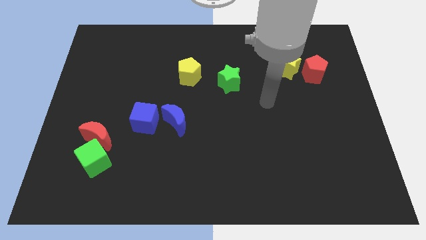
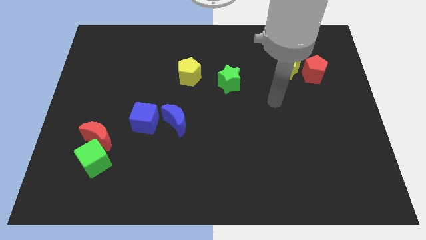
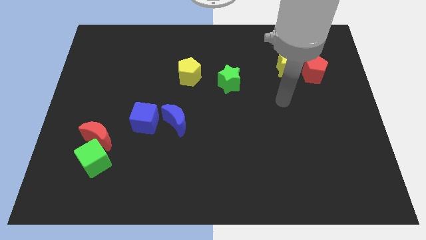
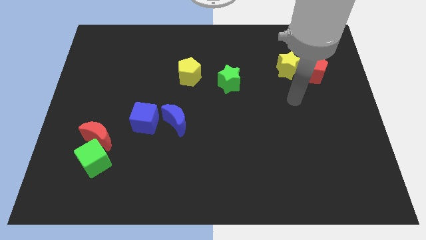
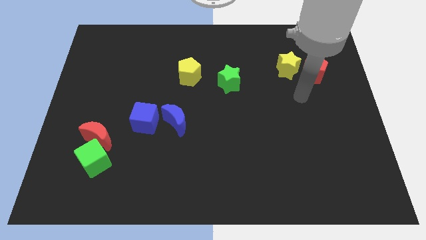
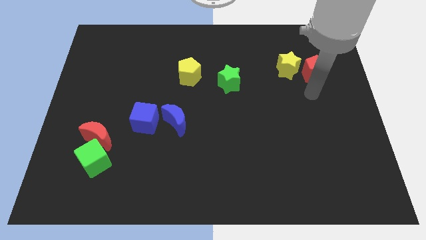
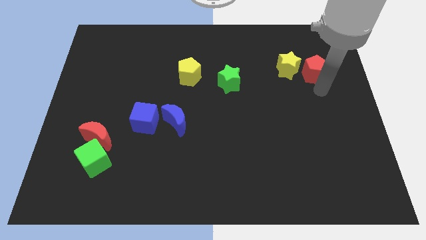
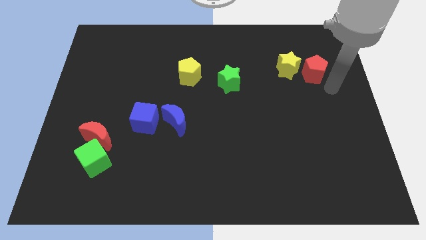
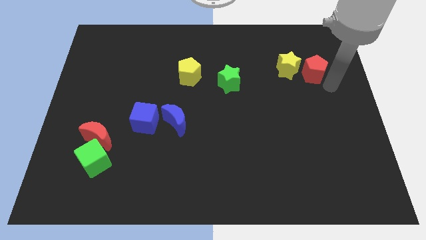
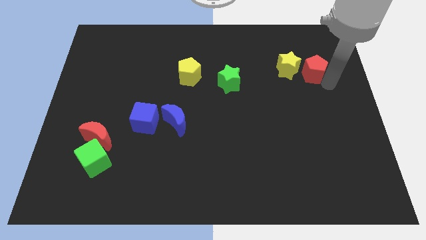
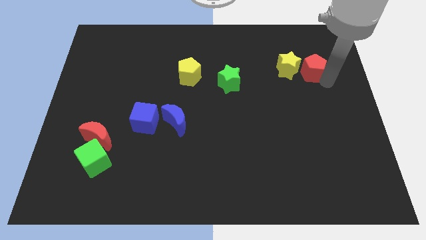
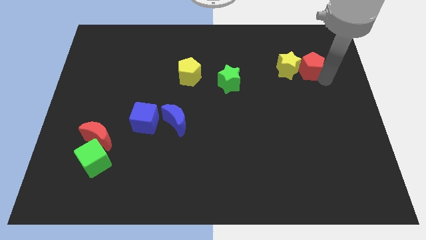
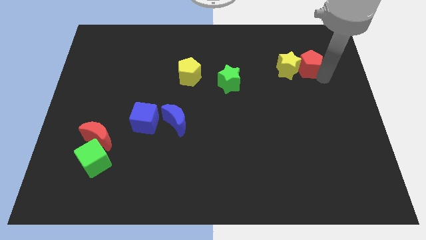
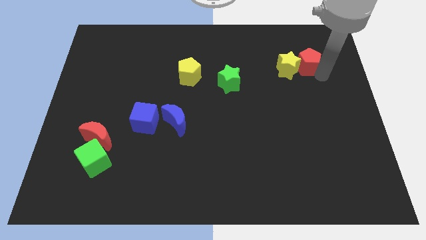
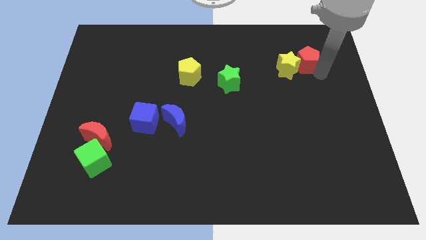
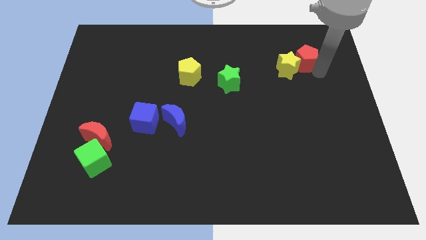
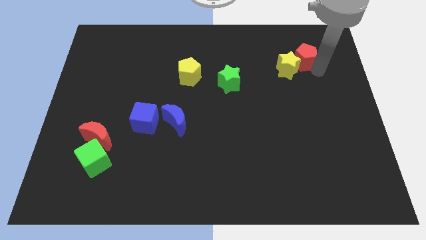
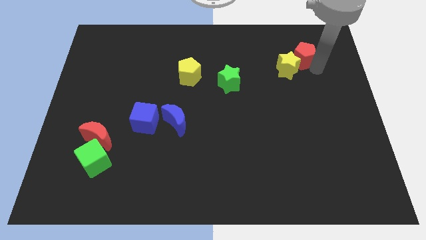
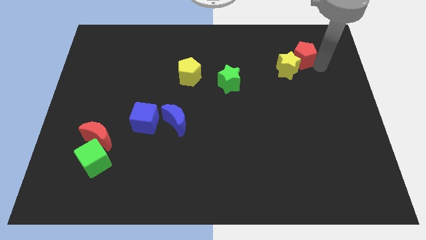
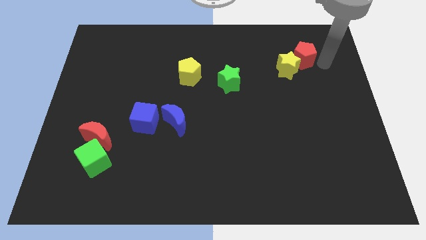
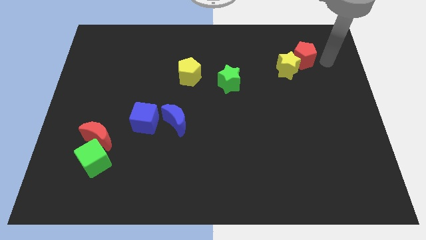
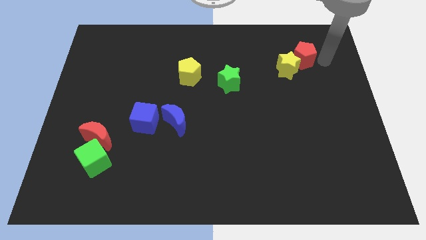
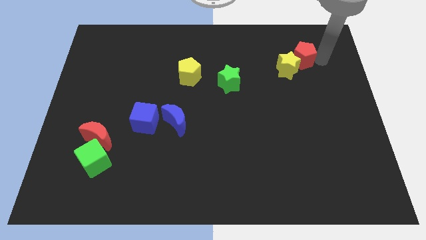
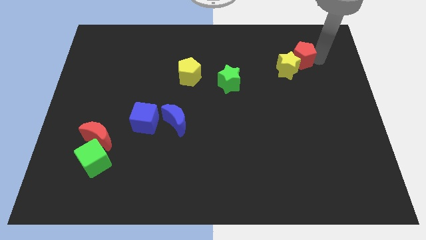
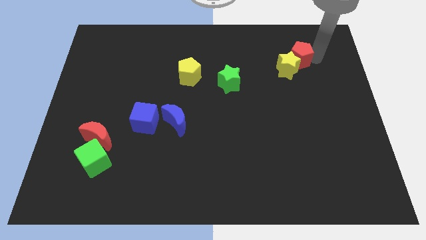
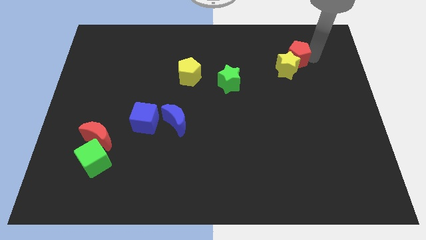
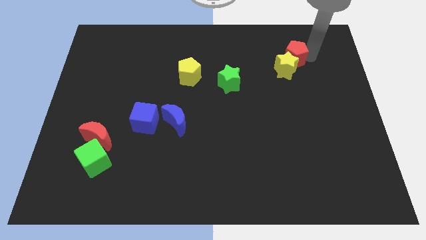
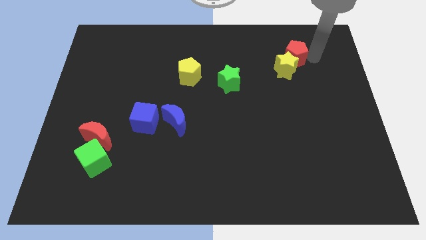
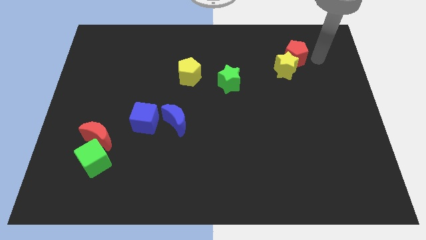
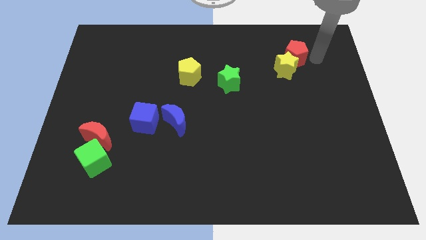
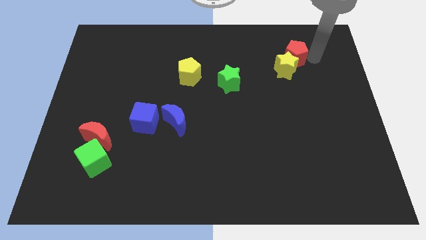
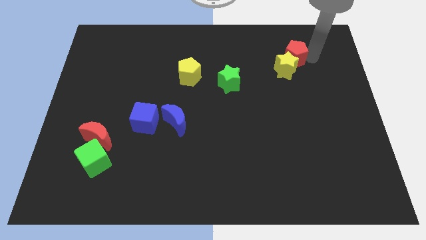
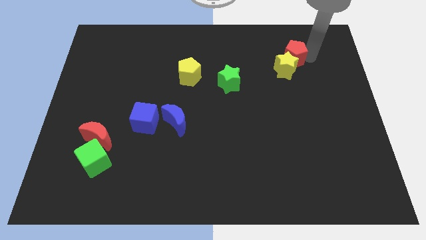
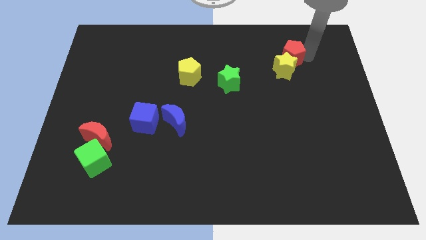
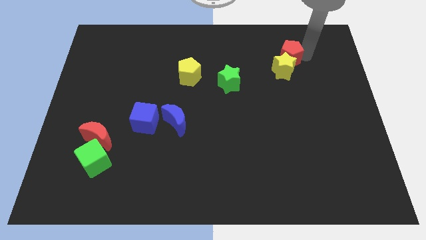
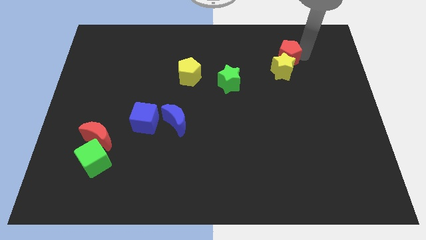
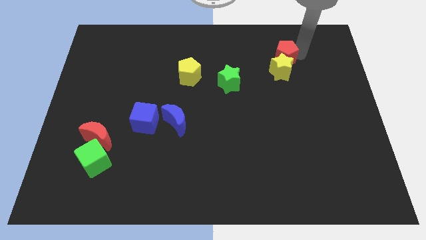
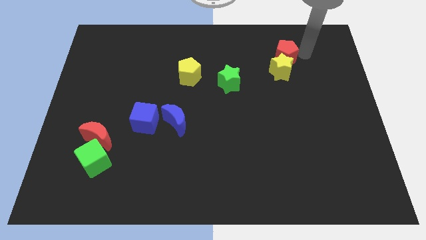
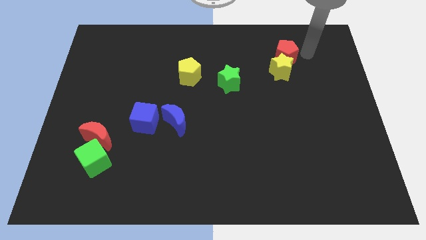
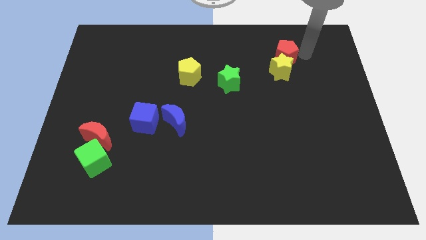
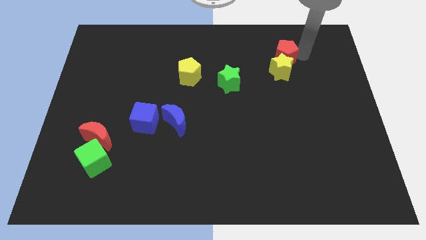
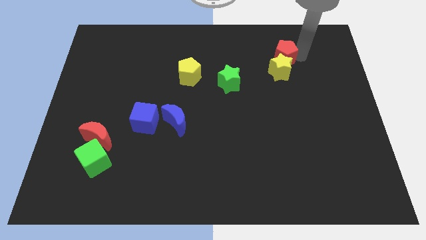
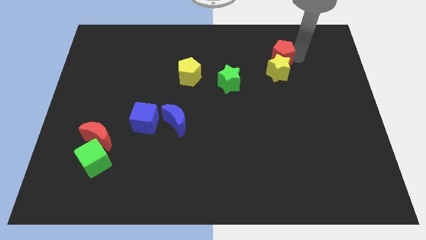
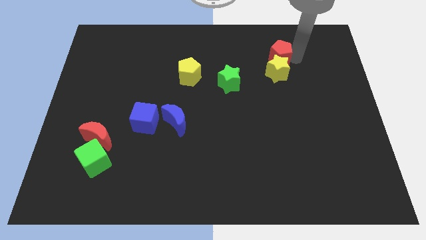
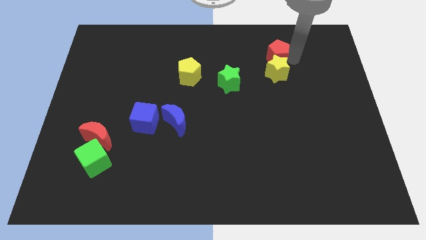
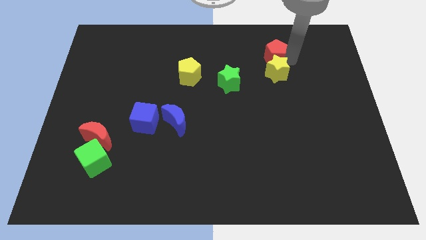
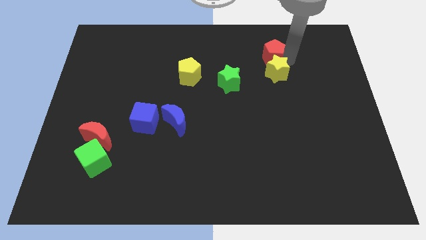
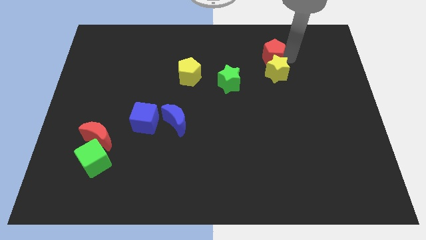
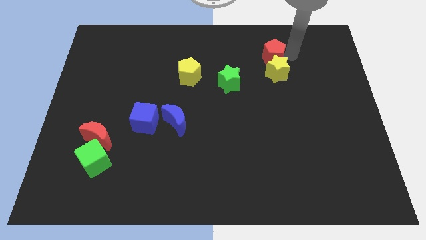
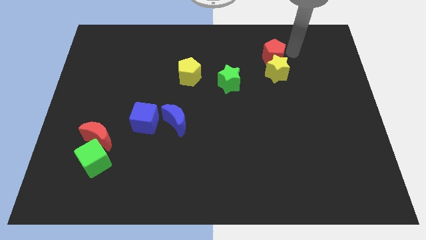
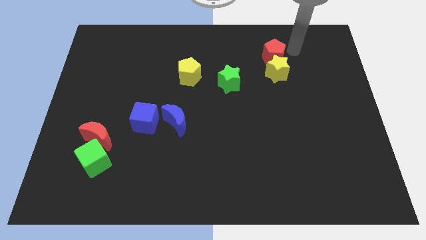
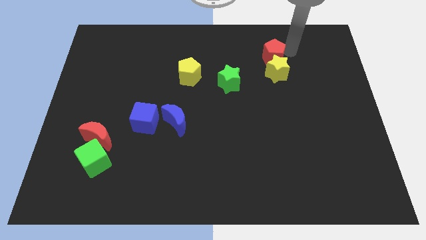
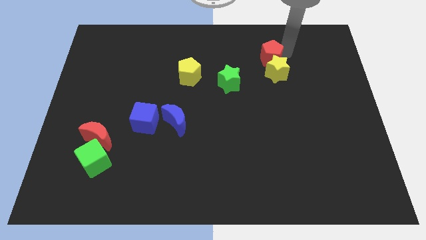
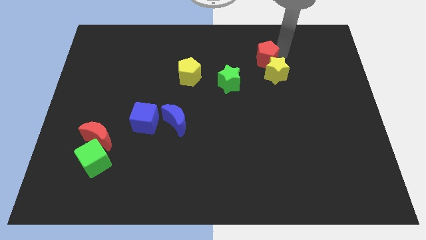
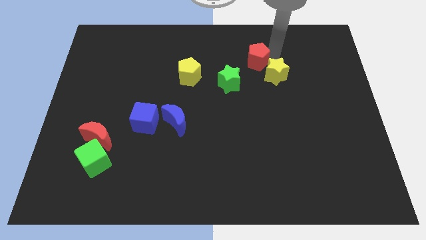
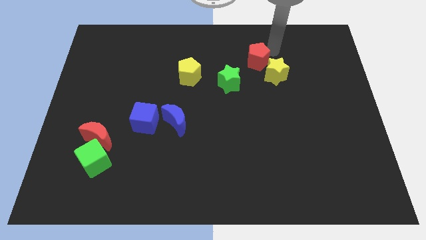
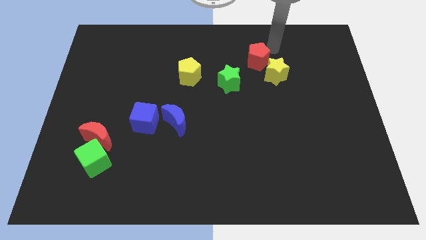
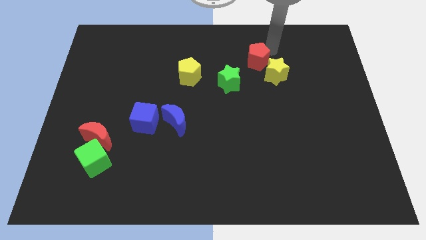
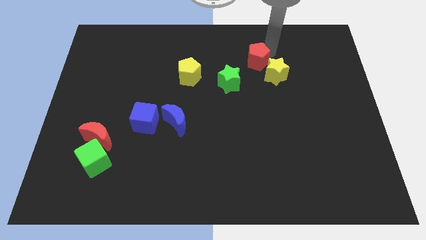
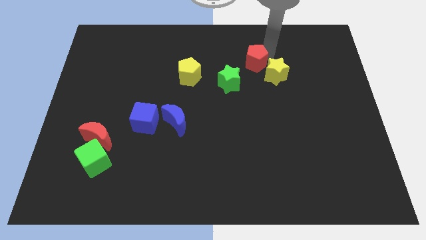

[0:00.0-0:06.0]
put the red pentagon to the left of the yellow star

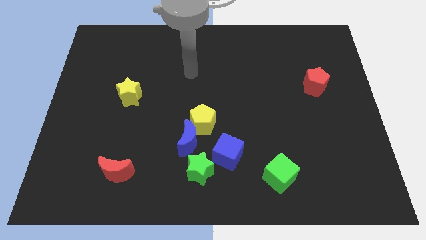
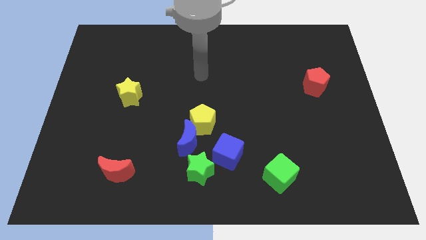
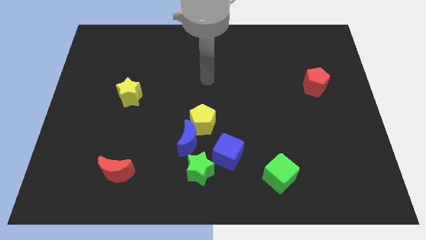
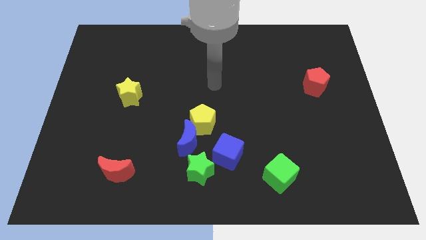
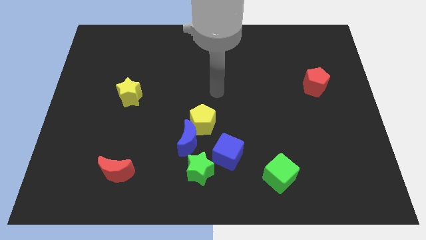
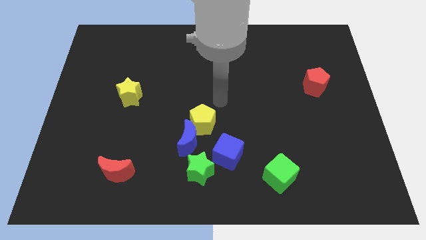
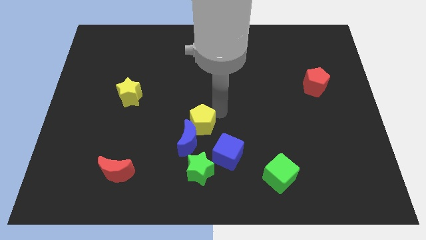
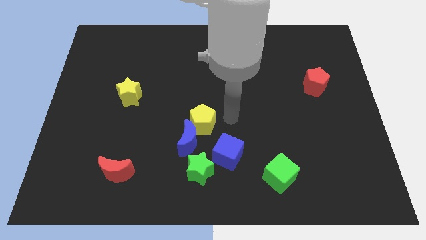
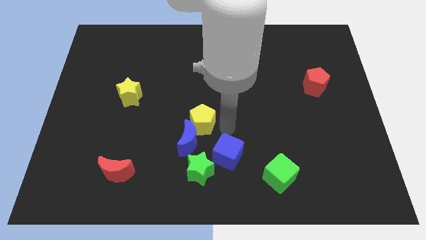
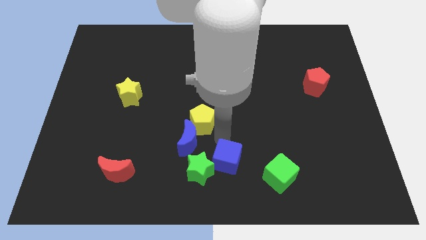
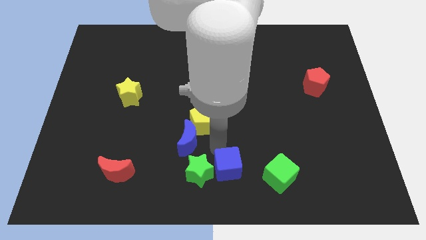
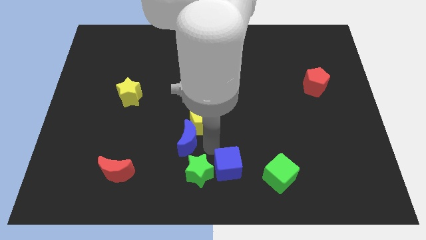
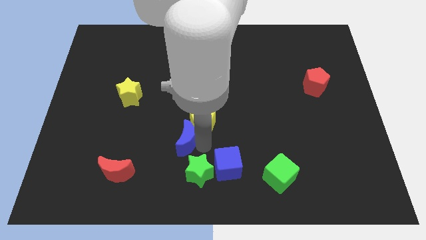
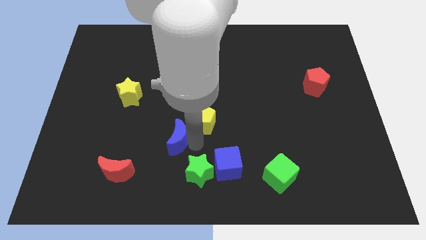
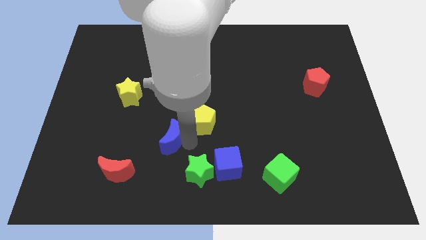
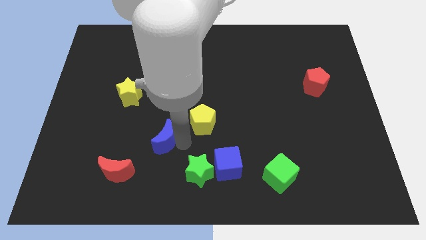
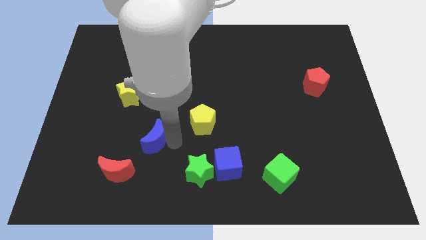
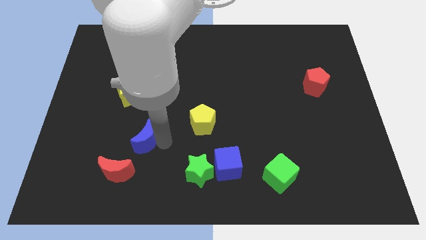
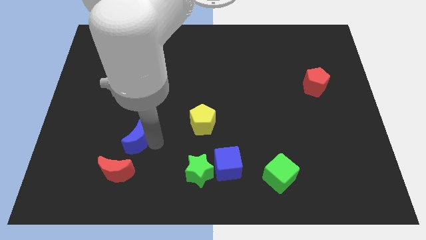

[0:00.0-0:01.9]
move the blue moon to the bottom of the yellow star
